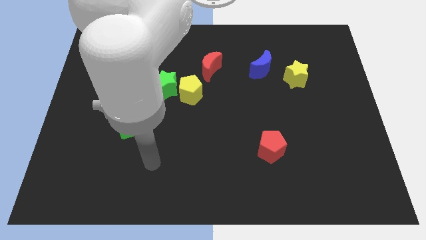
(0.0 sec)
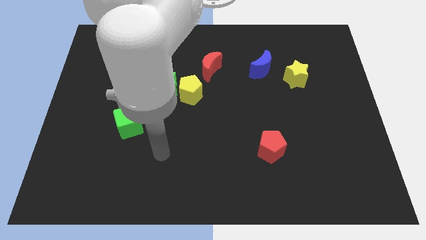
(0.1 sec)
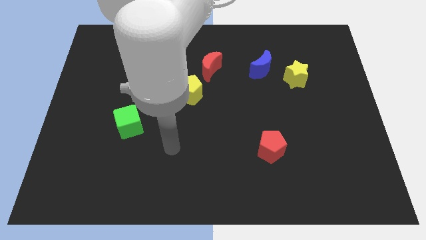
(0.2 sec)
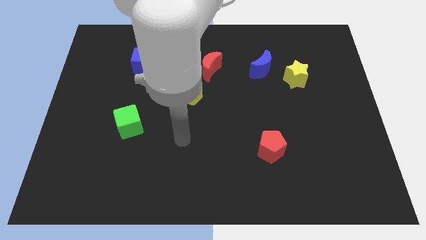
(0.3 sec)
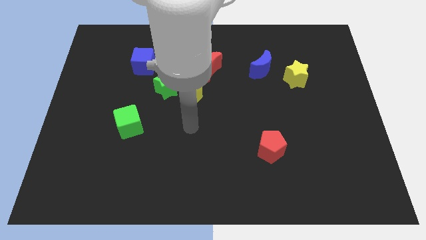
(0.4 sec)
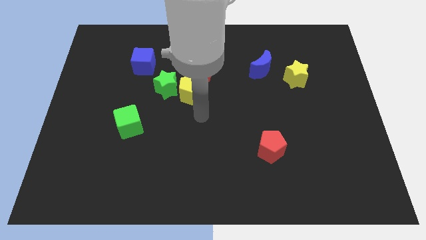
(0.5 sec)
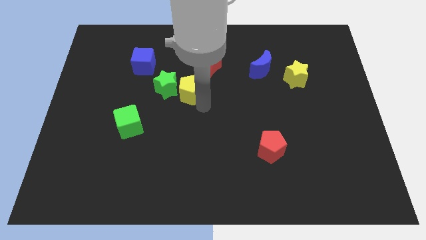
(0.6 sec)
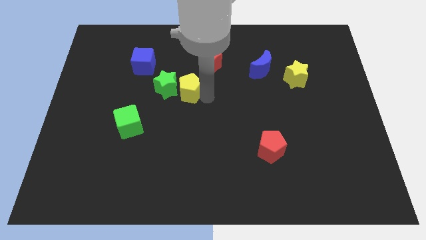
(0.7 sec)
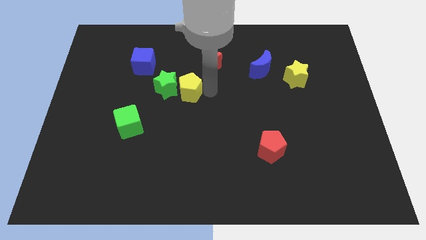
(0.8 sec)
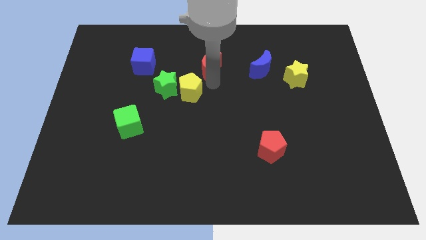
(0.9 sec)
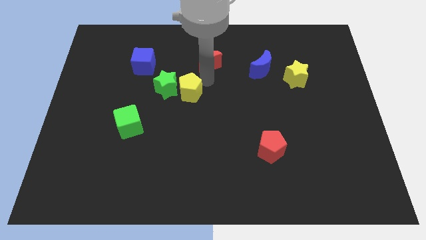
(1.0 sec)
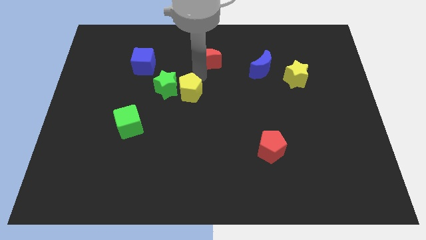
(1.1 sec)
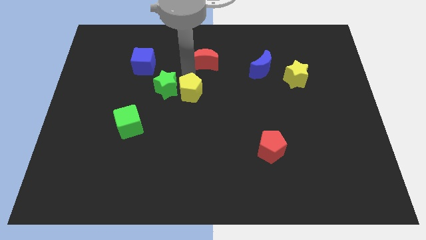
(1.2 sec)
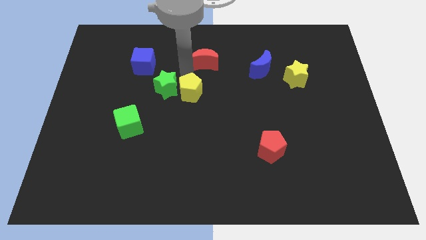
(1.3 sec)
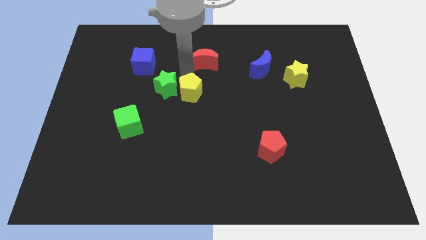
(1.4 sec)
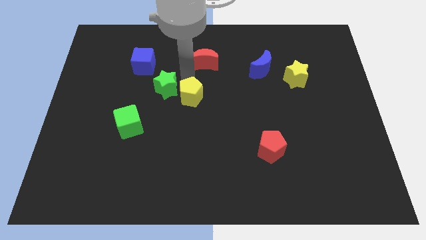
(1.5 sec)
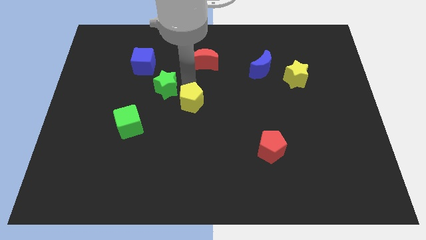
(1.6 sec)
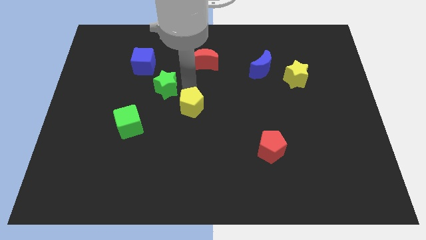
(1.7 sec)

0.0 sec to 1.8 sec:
move the yellow pentagon away from the green star and red moon

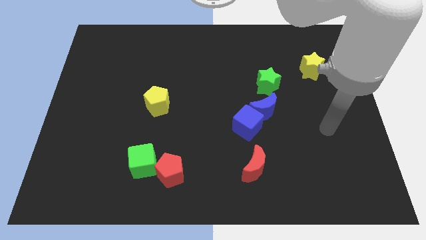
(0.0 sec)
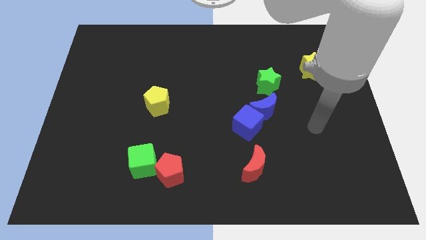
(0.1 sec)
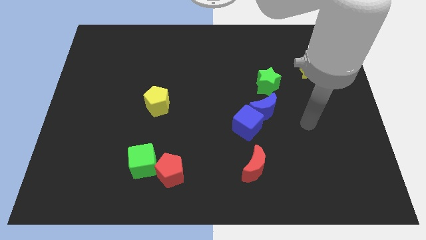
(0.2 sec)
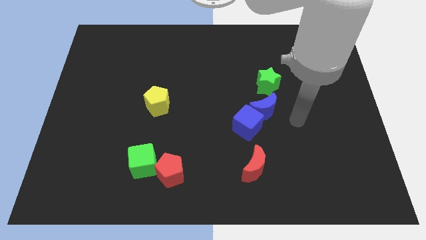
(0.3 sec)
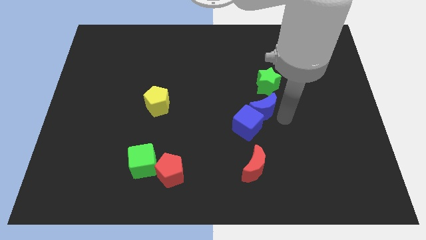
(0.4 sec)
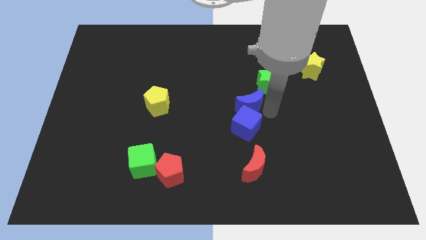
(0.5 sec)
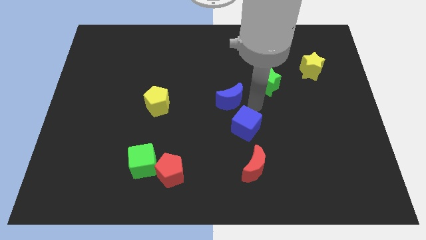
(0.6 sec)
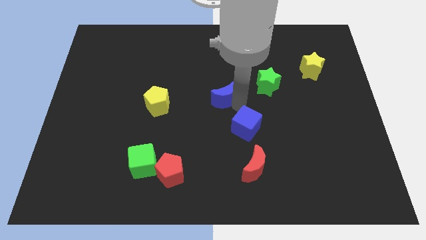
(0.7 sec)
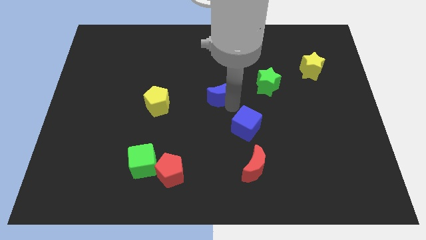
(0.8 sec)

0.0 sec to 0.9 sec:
move the blue cube away from the blue moon

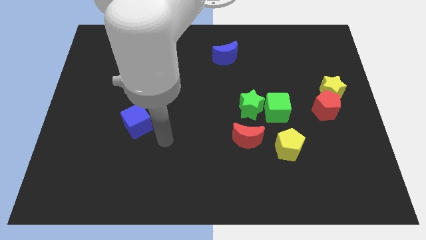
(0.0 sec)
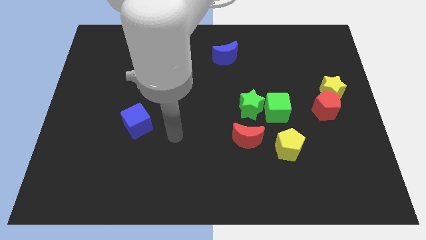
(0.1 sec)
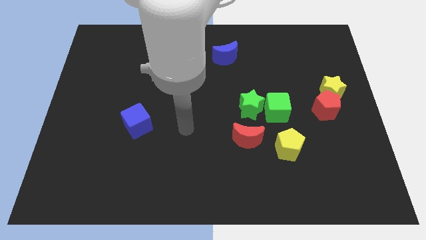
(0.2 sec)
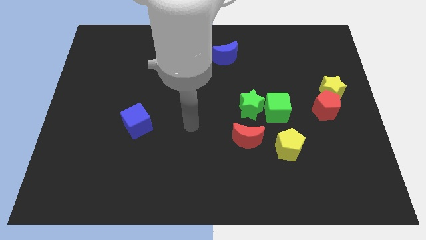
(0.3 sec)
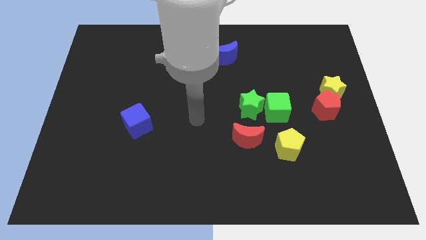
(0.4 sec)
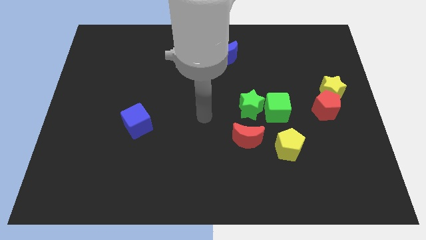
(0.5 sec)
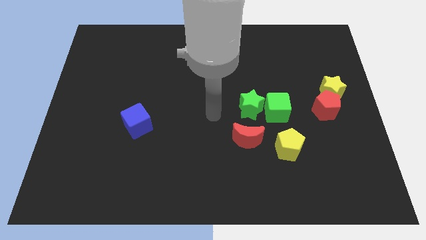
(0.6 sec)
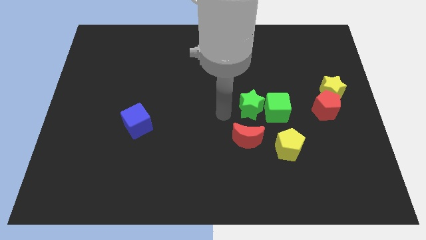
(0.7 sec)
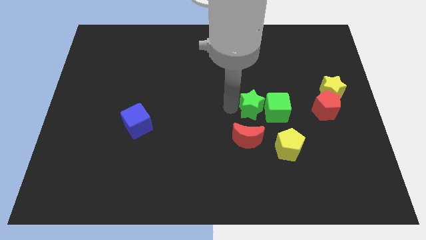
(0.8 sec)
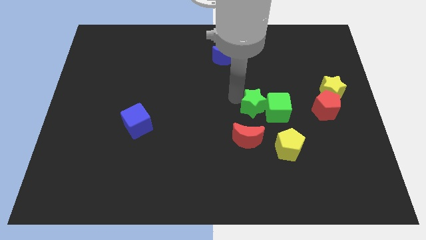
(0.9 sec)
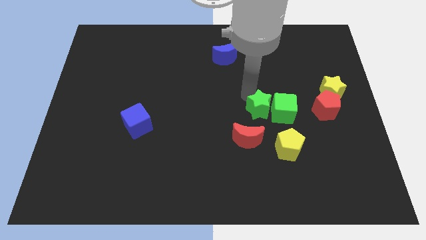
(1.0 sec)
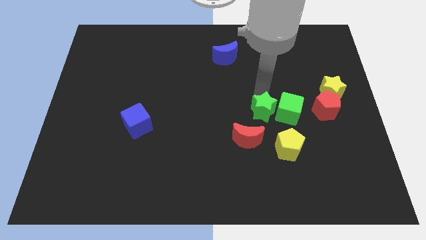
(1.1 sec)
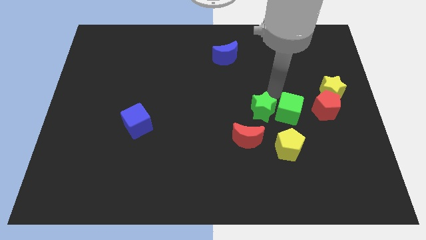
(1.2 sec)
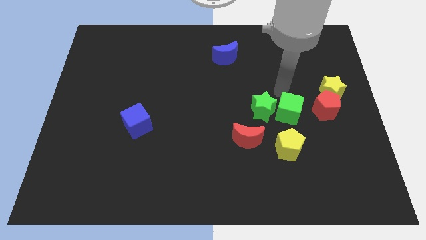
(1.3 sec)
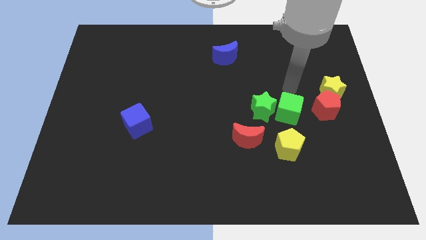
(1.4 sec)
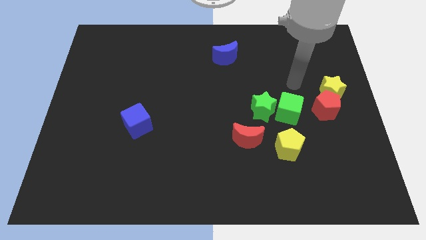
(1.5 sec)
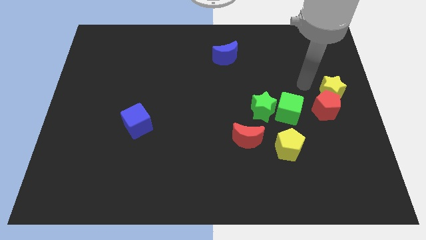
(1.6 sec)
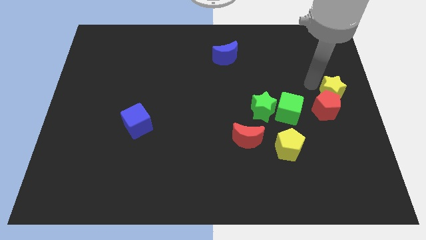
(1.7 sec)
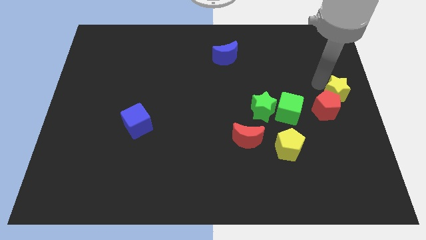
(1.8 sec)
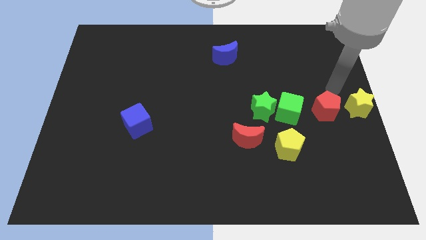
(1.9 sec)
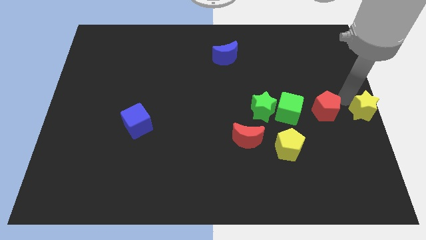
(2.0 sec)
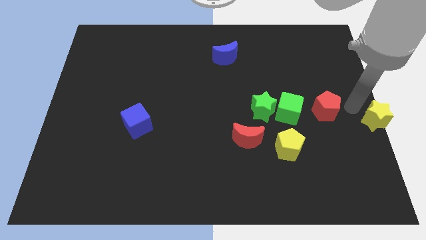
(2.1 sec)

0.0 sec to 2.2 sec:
move the red pentagon away from the yellow star

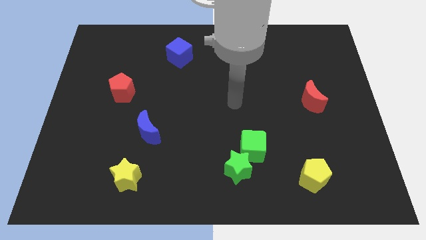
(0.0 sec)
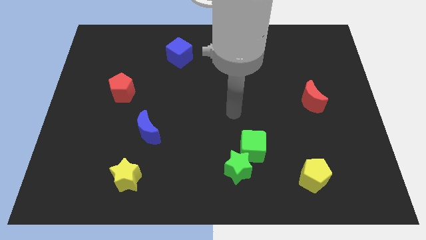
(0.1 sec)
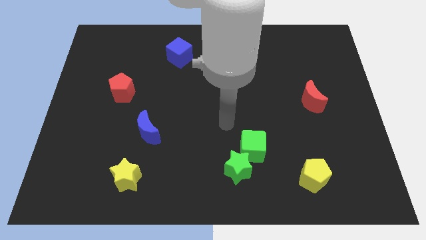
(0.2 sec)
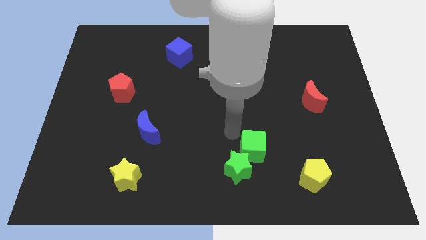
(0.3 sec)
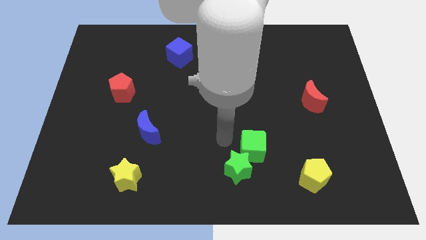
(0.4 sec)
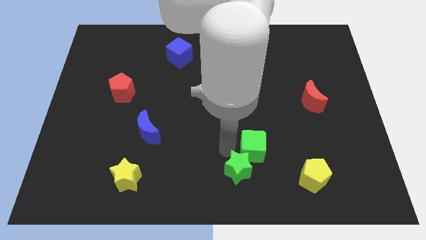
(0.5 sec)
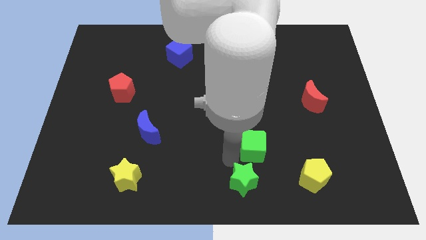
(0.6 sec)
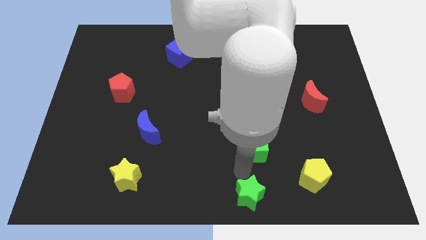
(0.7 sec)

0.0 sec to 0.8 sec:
move the green cube away from the green star

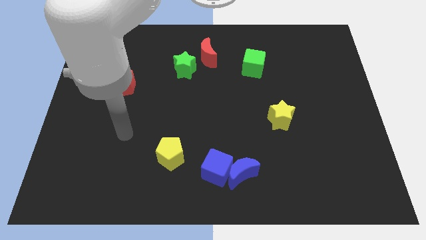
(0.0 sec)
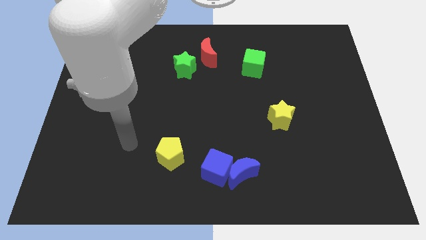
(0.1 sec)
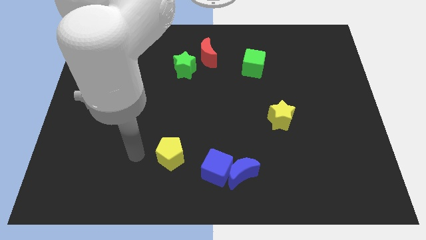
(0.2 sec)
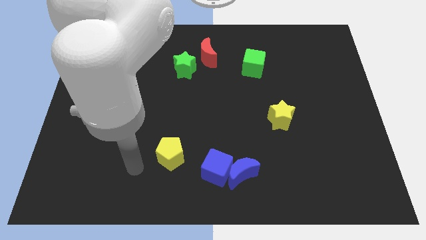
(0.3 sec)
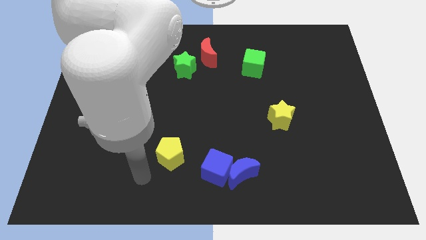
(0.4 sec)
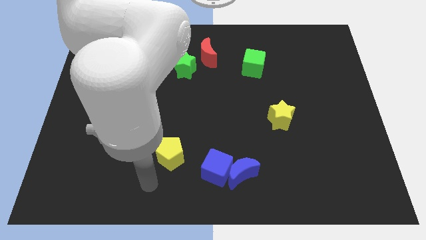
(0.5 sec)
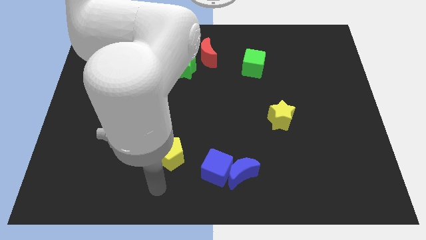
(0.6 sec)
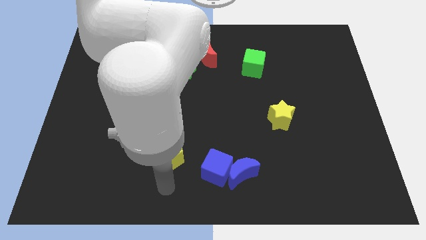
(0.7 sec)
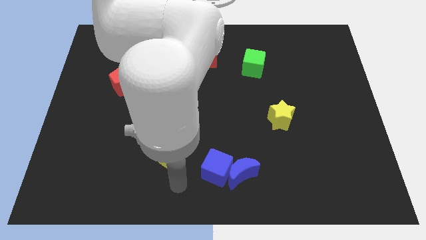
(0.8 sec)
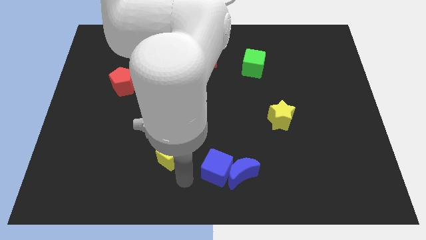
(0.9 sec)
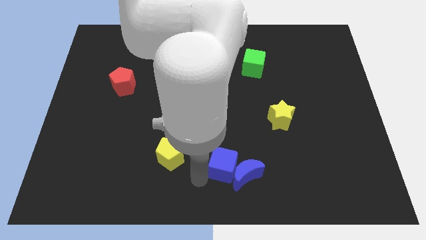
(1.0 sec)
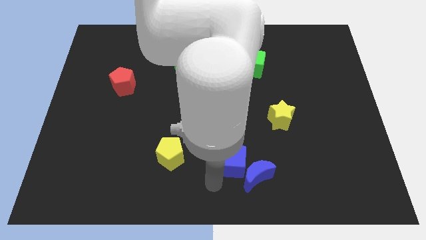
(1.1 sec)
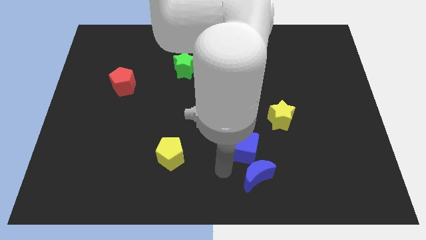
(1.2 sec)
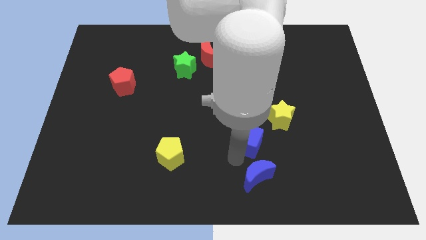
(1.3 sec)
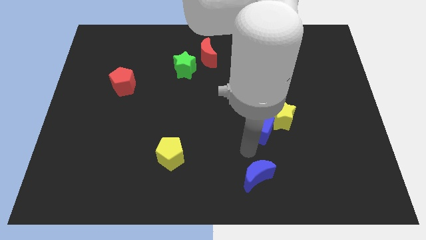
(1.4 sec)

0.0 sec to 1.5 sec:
separate the blue moon from the blue cube

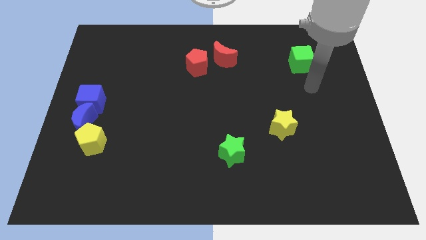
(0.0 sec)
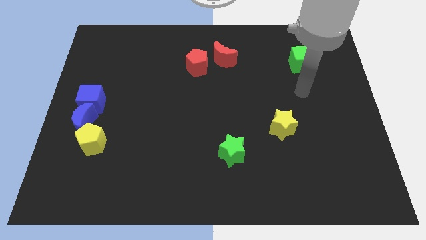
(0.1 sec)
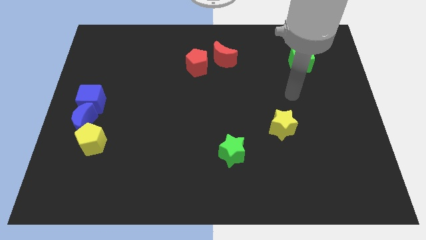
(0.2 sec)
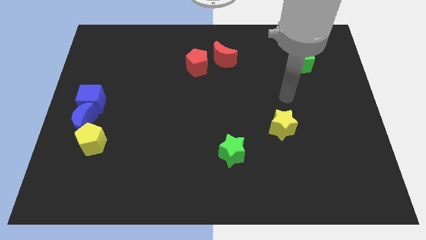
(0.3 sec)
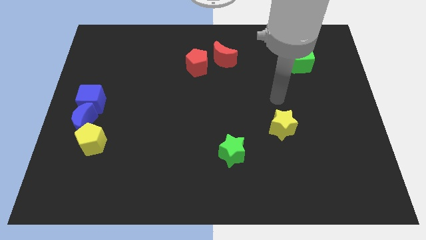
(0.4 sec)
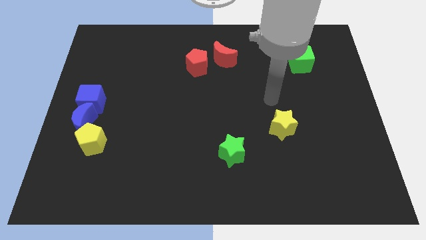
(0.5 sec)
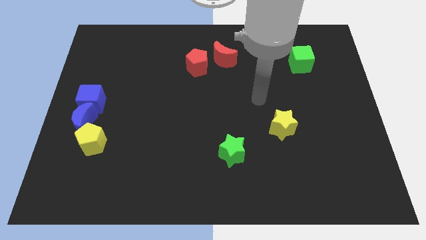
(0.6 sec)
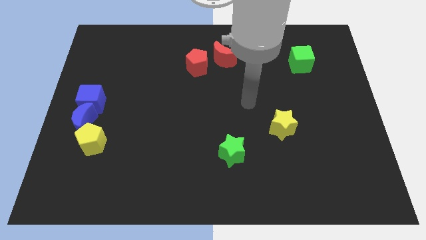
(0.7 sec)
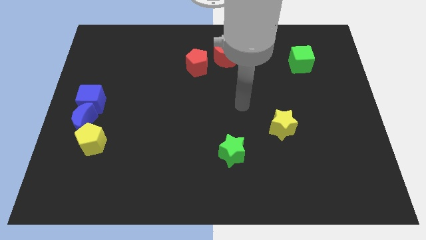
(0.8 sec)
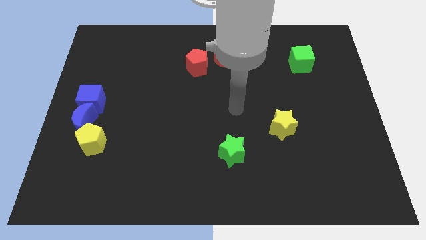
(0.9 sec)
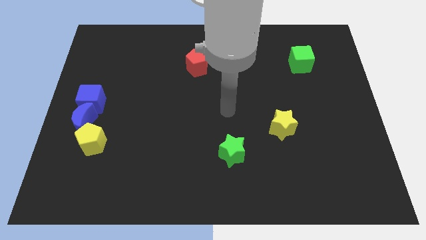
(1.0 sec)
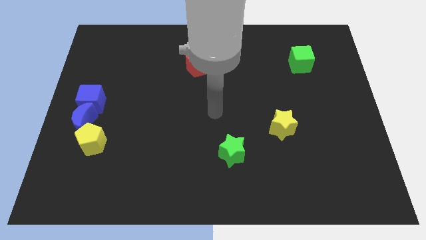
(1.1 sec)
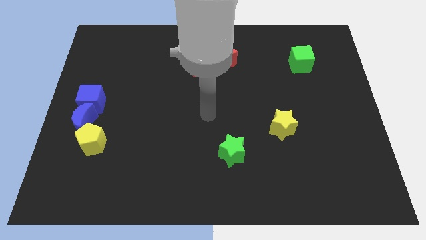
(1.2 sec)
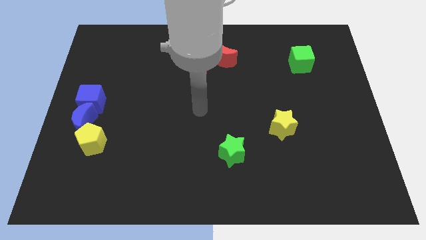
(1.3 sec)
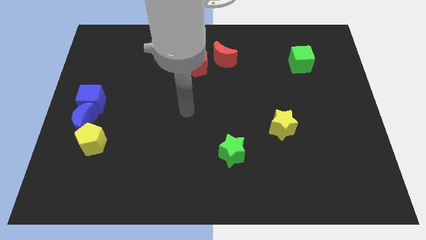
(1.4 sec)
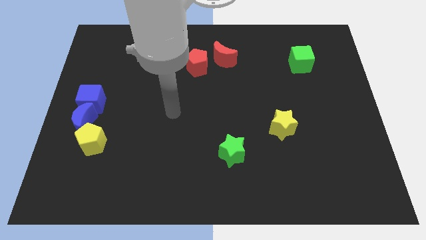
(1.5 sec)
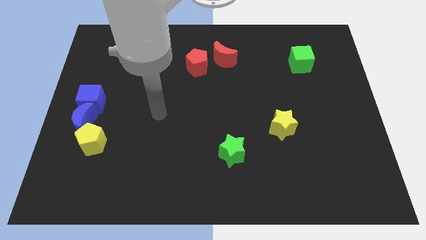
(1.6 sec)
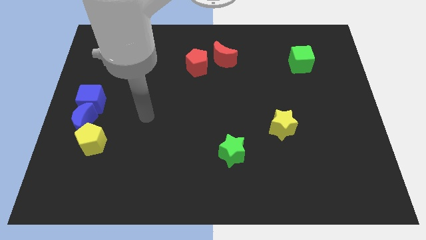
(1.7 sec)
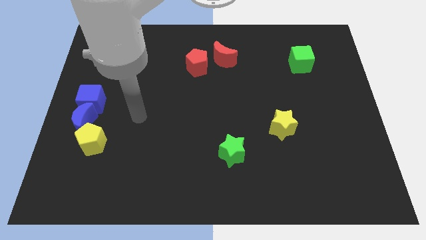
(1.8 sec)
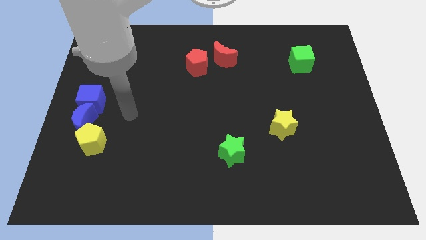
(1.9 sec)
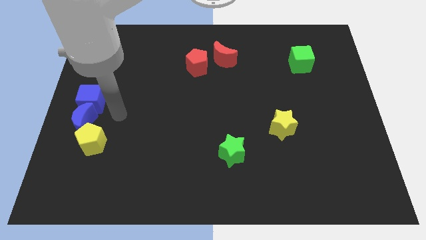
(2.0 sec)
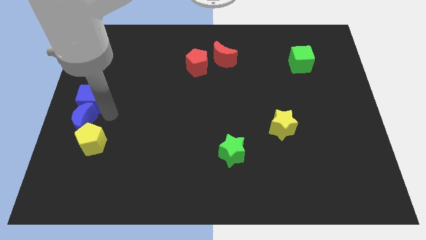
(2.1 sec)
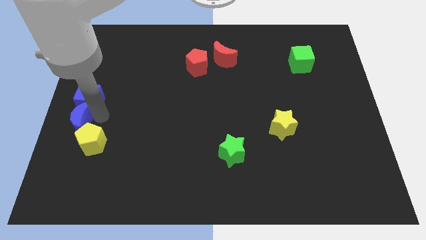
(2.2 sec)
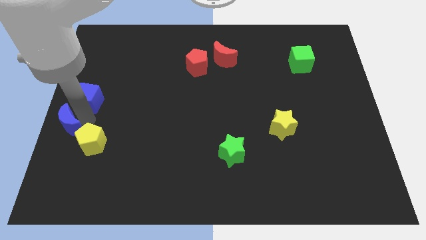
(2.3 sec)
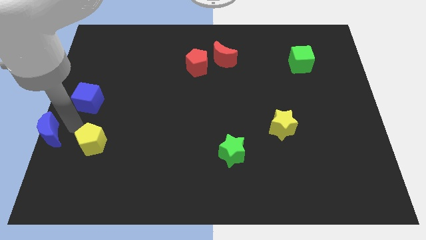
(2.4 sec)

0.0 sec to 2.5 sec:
move the yellow pentagon away from the blue moon
